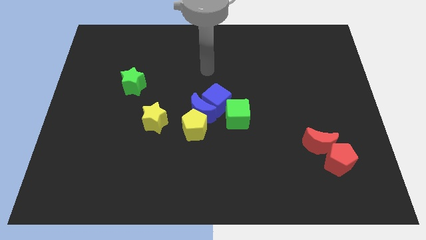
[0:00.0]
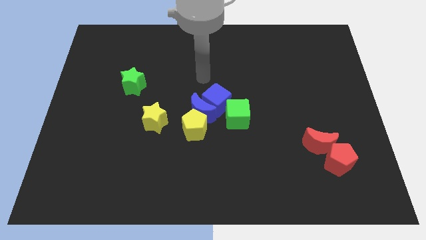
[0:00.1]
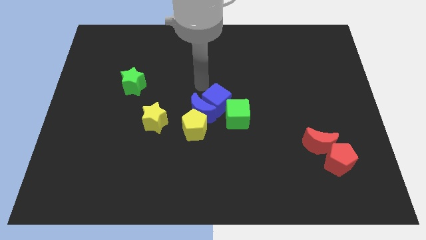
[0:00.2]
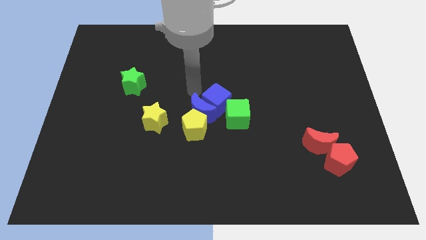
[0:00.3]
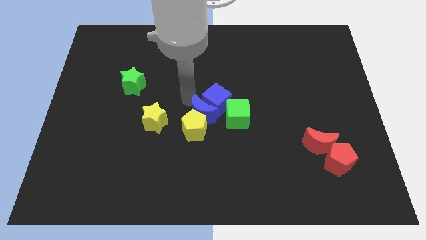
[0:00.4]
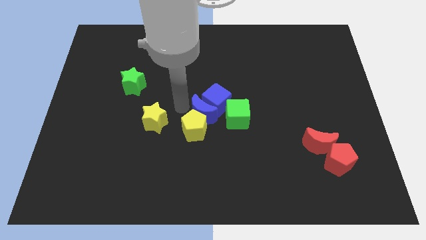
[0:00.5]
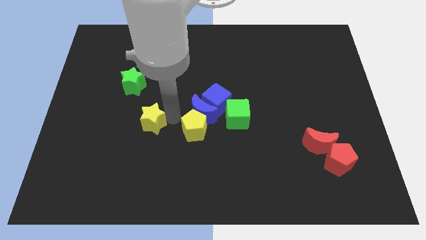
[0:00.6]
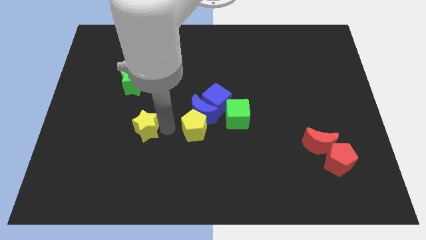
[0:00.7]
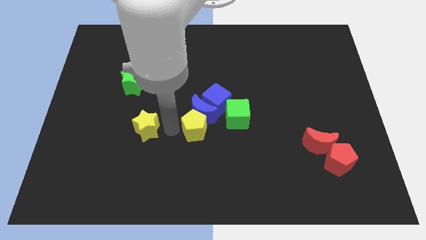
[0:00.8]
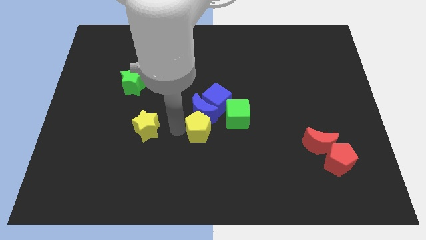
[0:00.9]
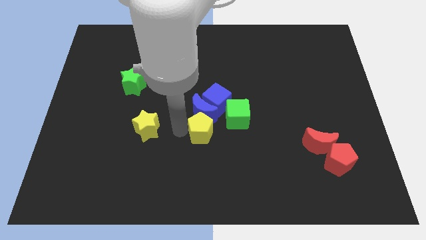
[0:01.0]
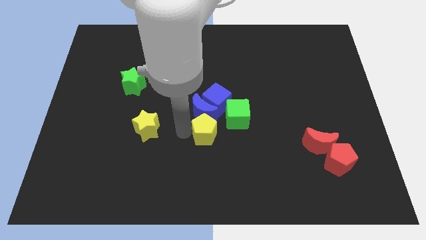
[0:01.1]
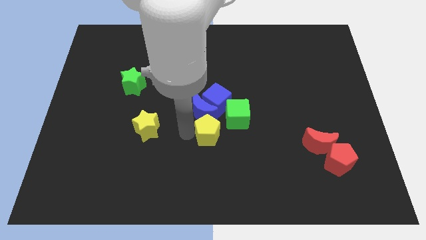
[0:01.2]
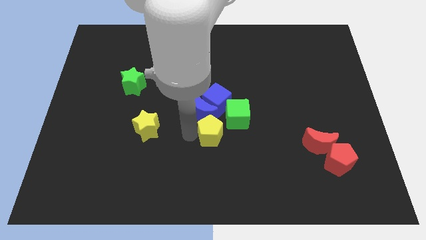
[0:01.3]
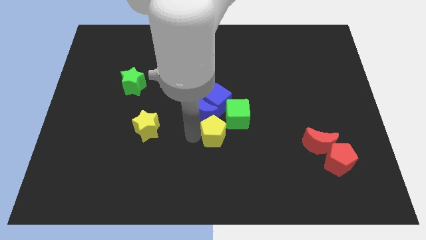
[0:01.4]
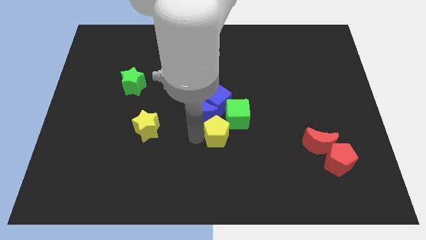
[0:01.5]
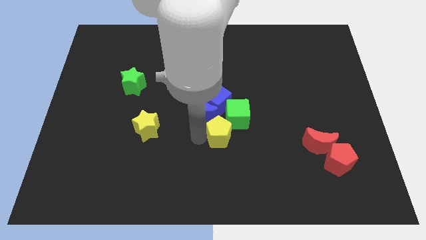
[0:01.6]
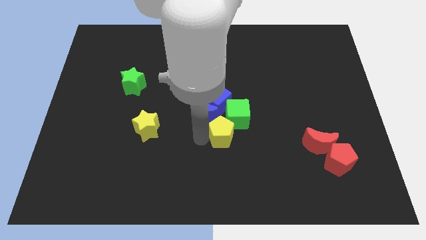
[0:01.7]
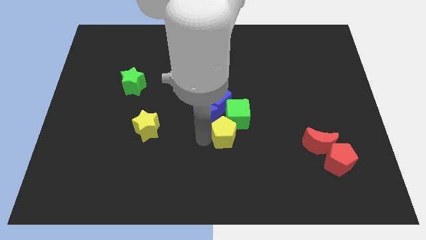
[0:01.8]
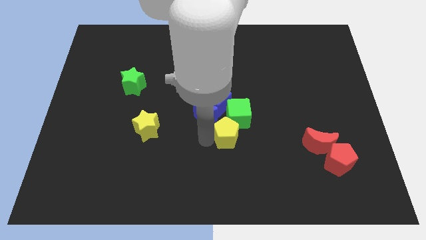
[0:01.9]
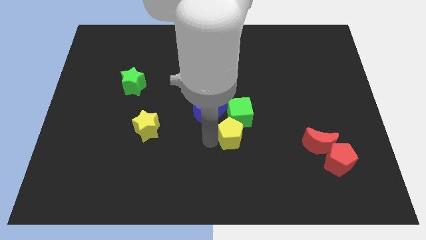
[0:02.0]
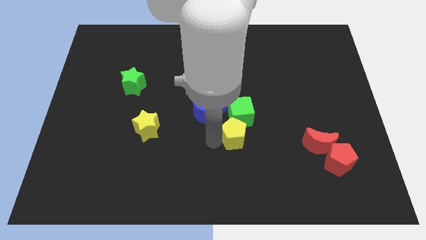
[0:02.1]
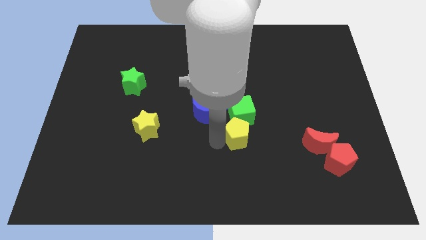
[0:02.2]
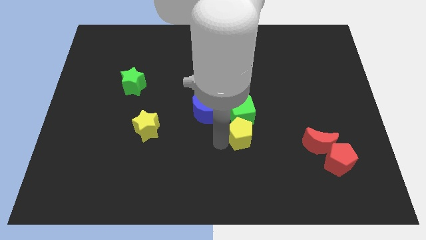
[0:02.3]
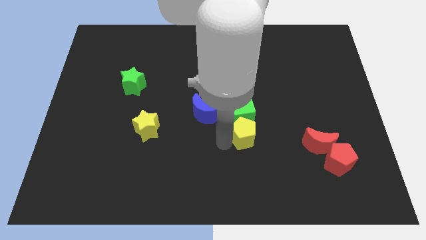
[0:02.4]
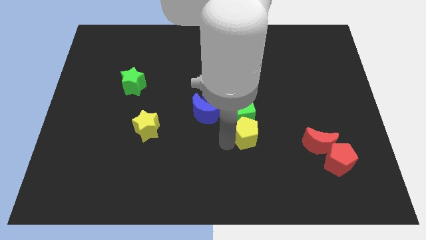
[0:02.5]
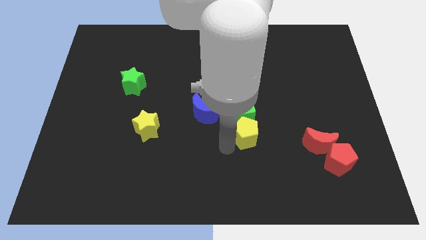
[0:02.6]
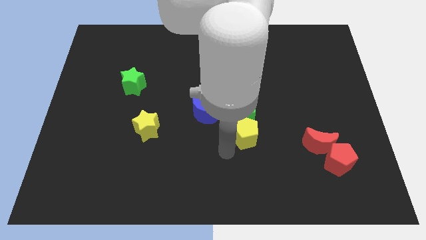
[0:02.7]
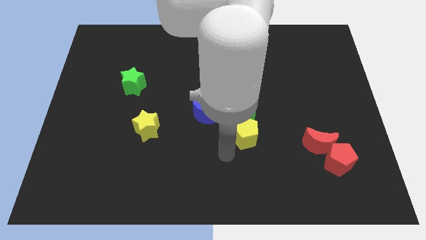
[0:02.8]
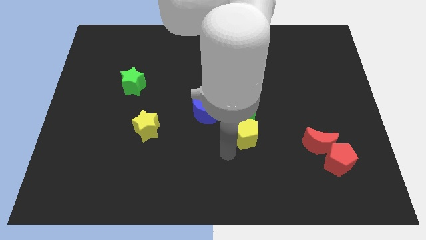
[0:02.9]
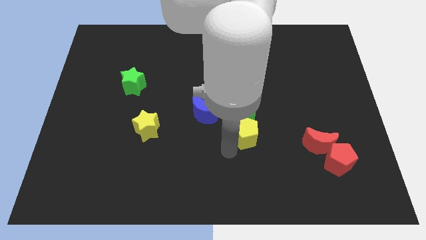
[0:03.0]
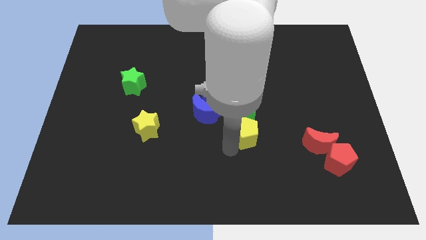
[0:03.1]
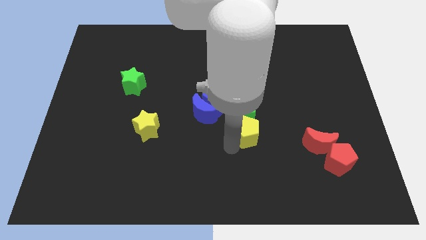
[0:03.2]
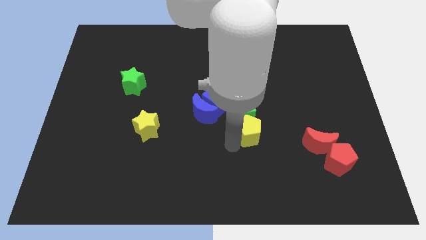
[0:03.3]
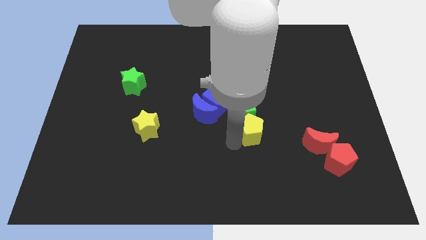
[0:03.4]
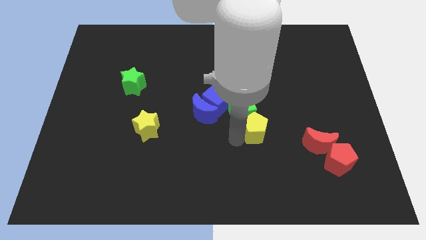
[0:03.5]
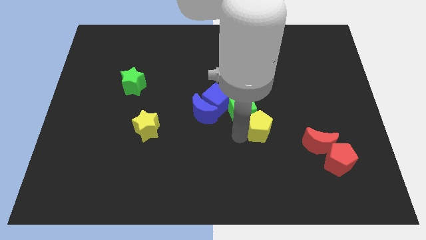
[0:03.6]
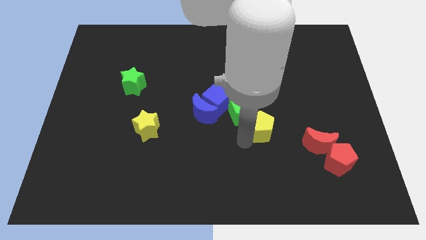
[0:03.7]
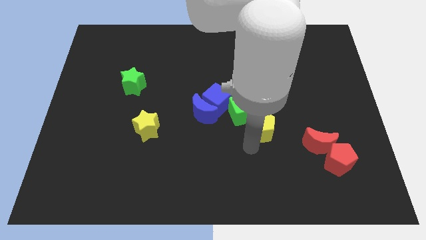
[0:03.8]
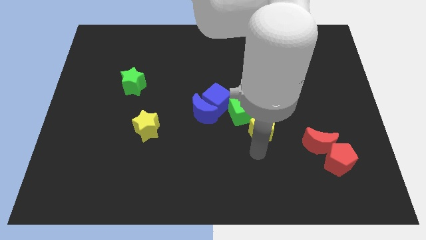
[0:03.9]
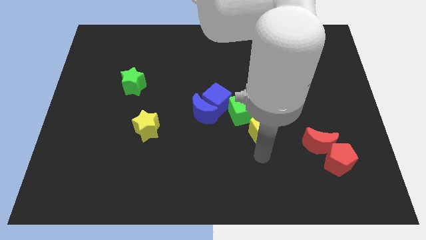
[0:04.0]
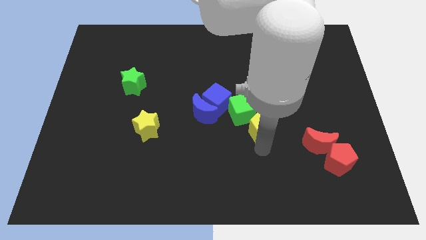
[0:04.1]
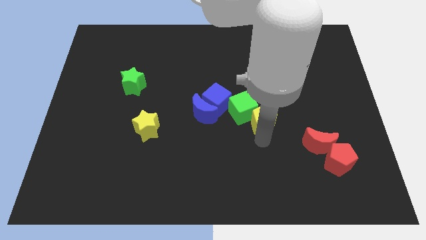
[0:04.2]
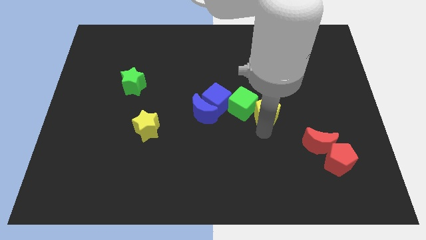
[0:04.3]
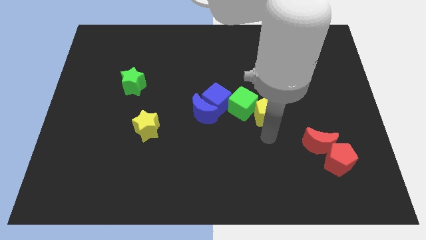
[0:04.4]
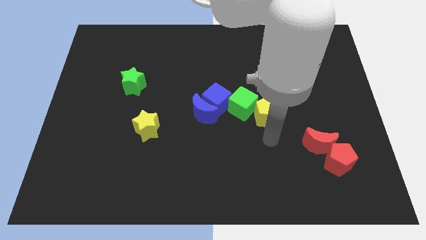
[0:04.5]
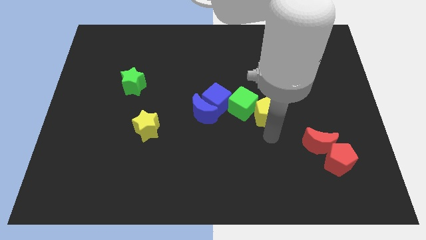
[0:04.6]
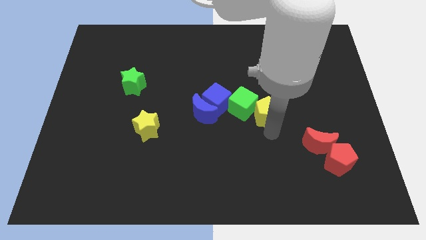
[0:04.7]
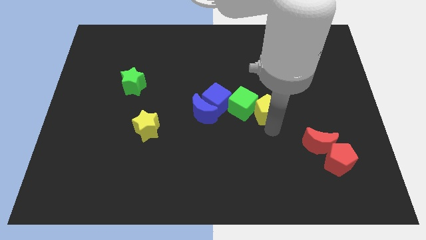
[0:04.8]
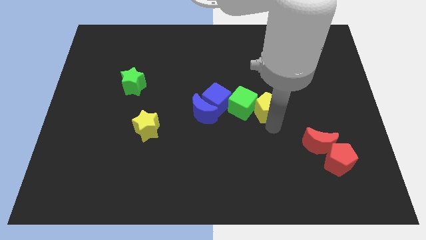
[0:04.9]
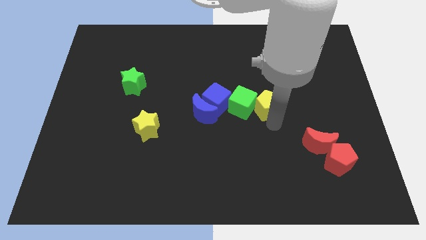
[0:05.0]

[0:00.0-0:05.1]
move the yellow pentagon diagonally up and to the right of the green cube
